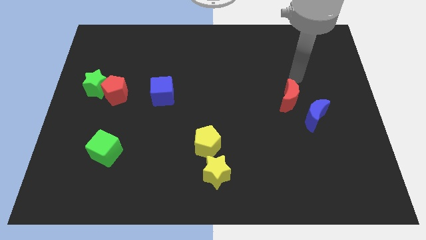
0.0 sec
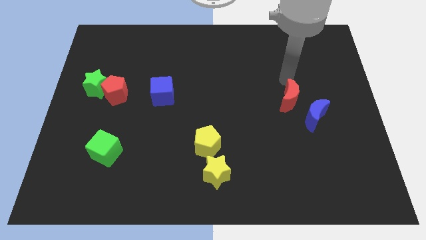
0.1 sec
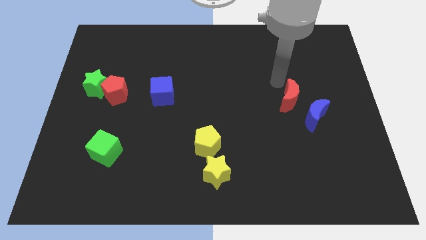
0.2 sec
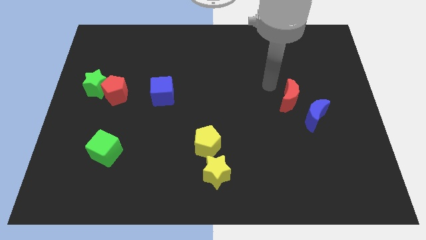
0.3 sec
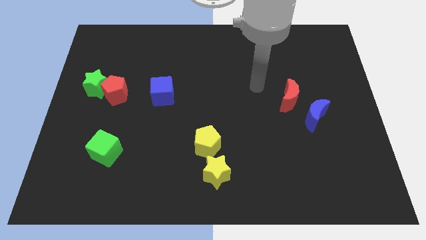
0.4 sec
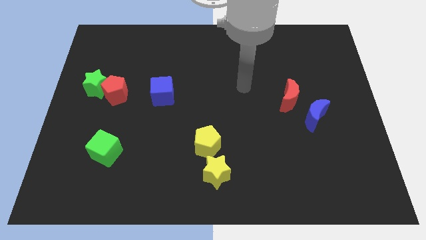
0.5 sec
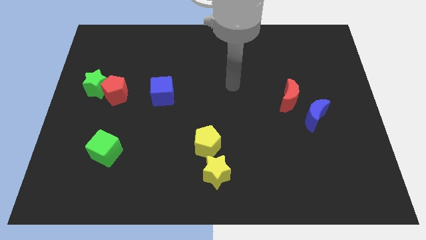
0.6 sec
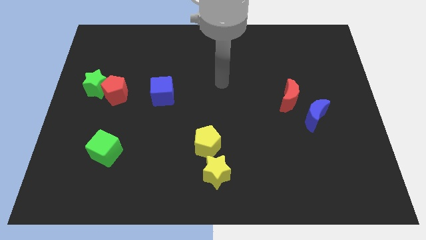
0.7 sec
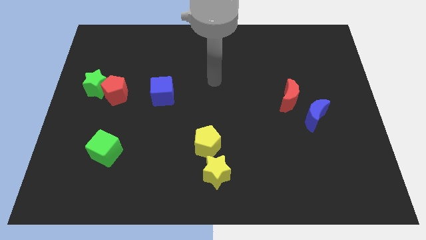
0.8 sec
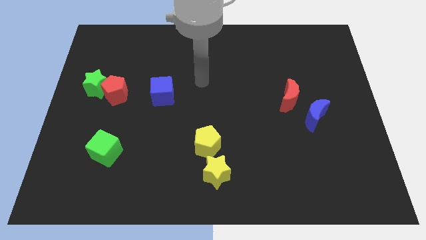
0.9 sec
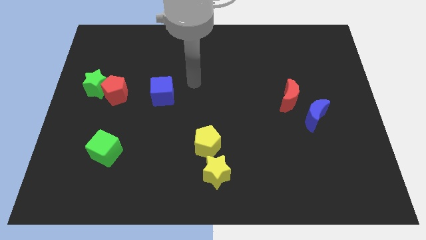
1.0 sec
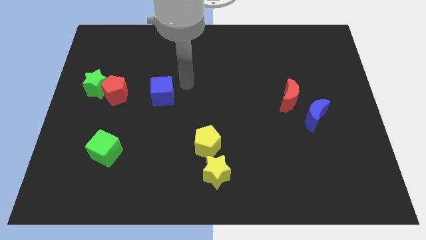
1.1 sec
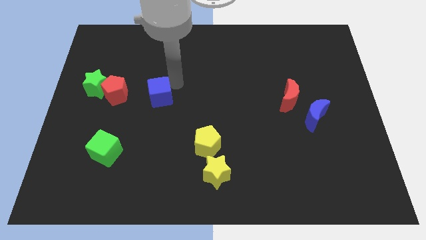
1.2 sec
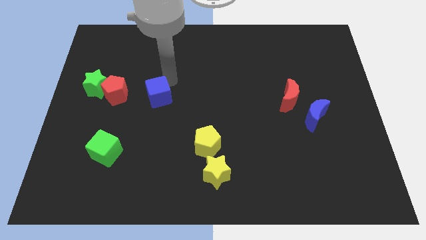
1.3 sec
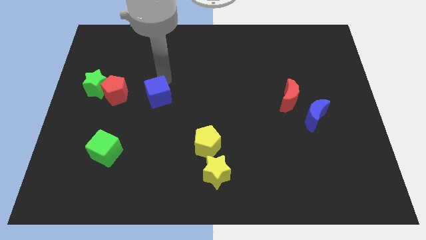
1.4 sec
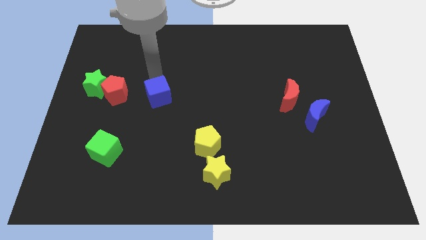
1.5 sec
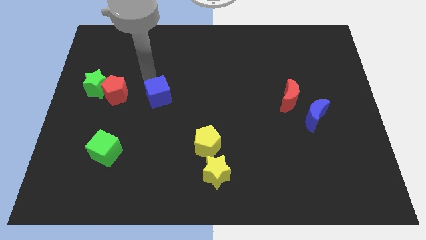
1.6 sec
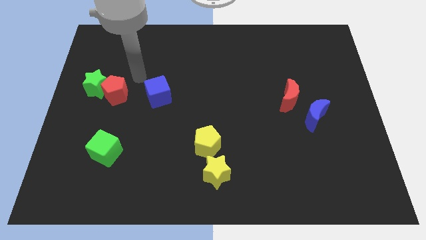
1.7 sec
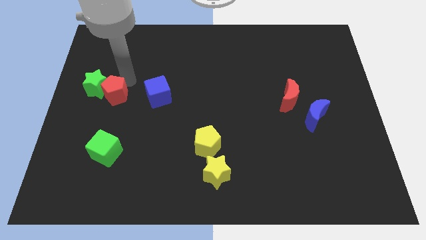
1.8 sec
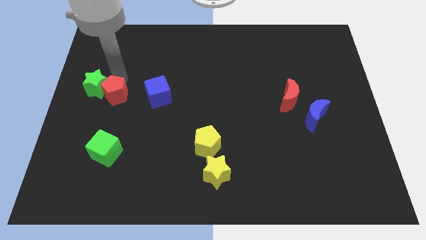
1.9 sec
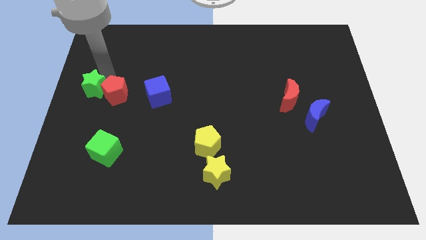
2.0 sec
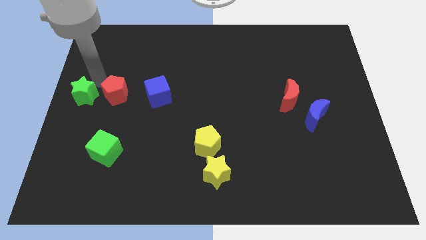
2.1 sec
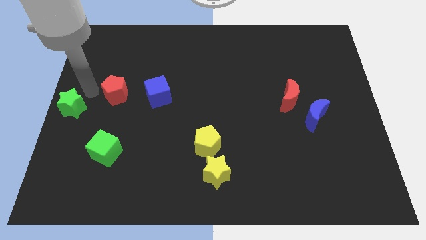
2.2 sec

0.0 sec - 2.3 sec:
separate the red pentagon from the green star

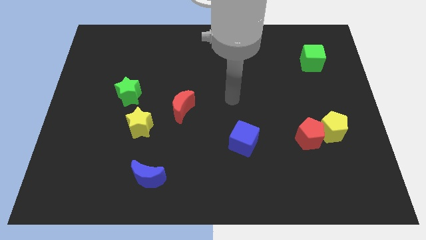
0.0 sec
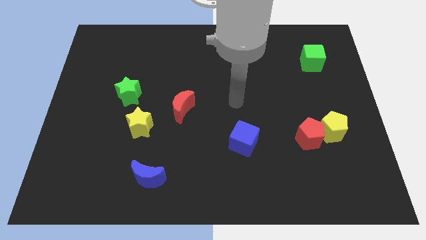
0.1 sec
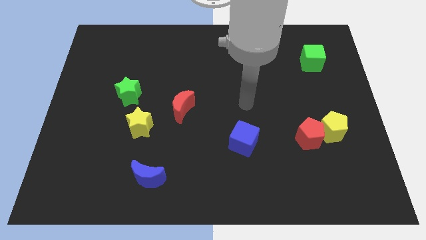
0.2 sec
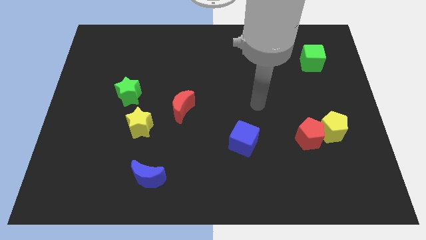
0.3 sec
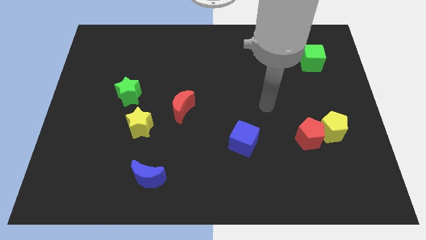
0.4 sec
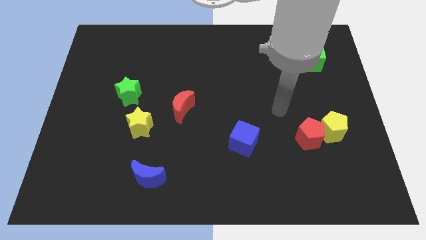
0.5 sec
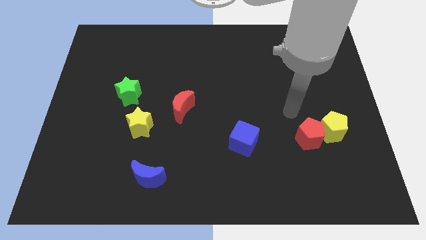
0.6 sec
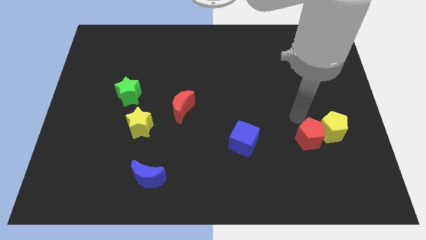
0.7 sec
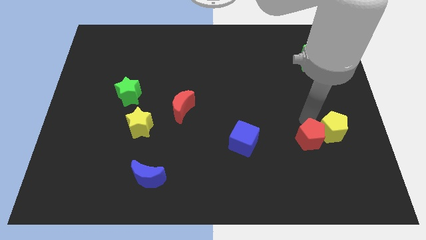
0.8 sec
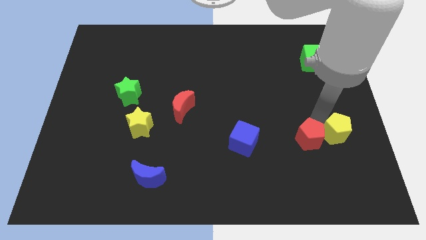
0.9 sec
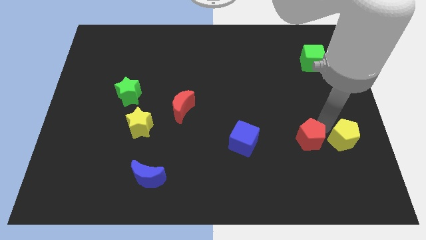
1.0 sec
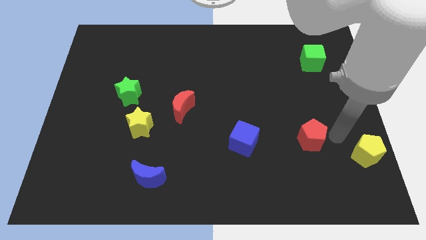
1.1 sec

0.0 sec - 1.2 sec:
pull the red pentagon apart from the yellow pentagon

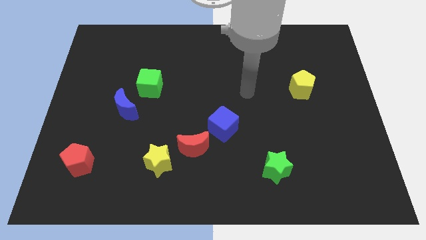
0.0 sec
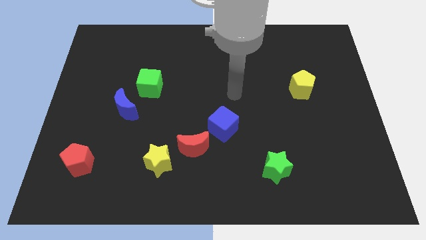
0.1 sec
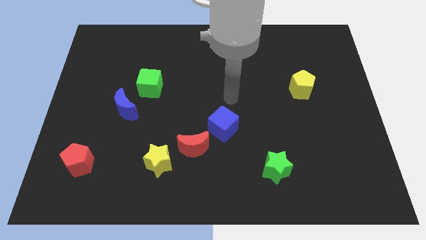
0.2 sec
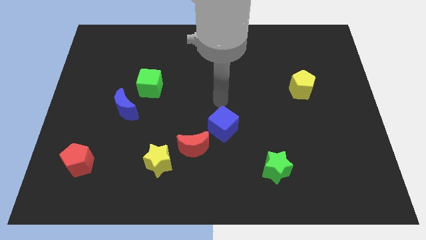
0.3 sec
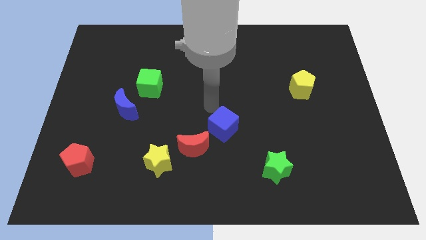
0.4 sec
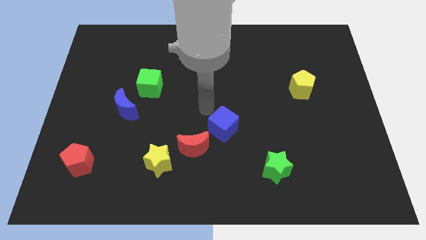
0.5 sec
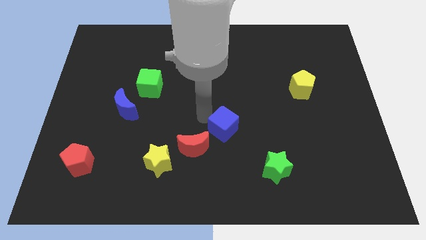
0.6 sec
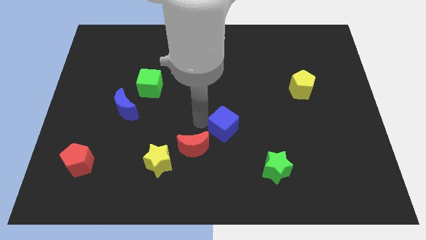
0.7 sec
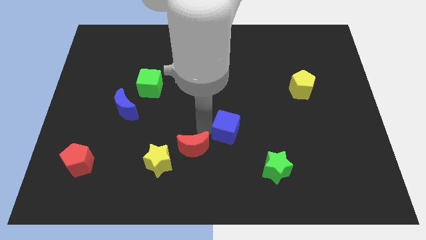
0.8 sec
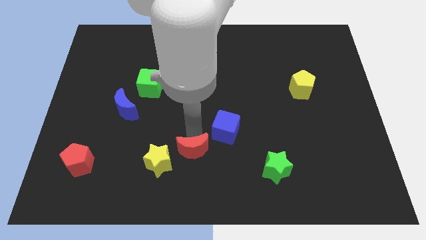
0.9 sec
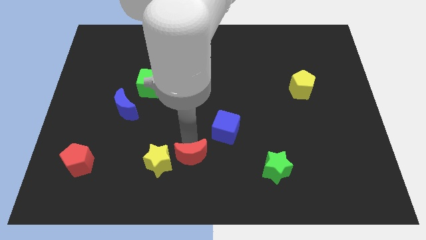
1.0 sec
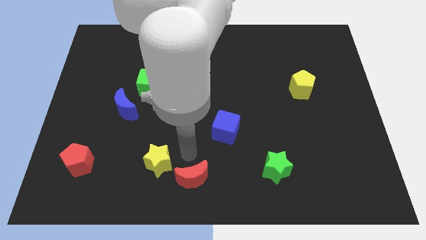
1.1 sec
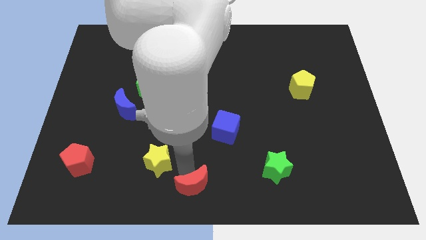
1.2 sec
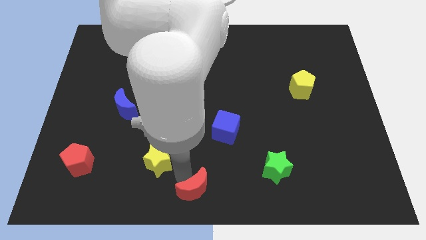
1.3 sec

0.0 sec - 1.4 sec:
pull the yellow star apart from the red moon

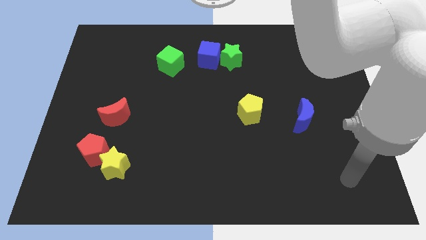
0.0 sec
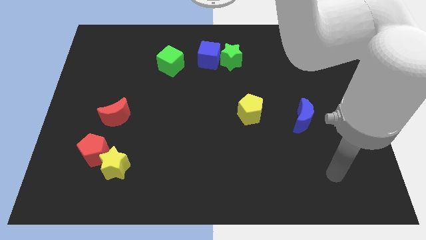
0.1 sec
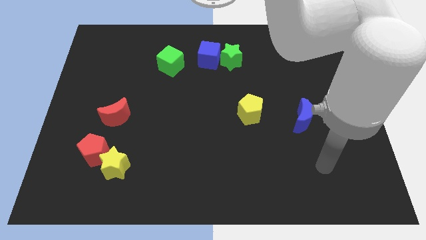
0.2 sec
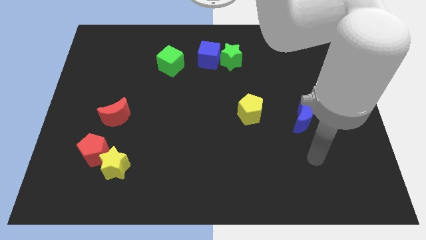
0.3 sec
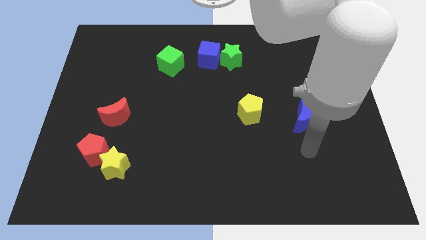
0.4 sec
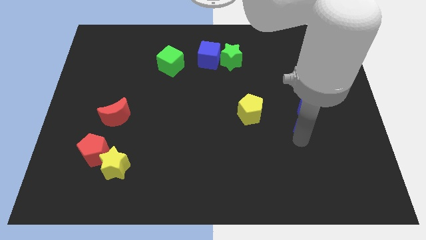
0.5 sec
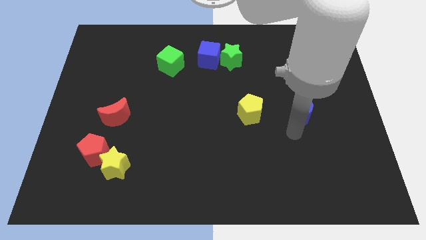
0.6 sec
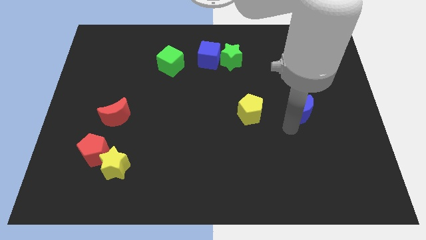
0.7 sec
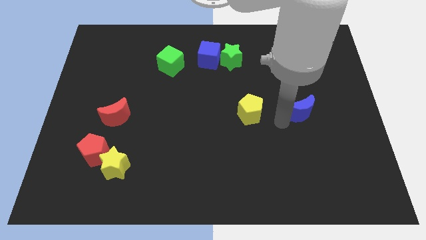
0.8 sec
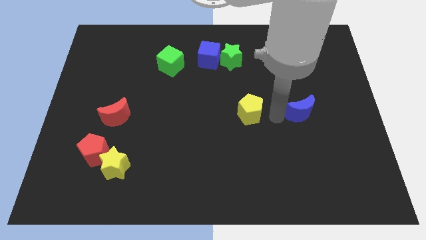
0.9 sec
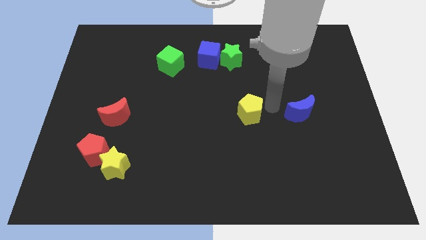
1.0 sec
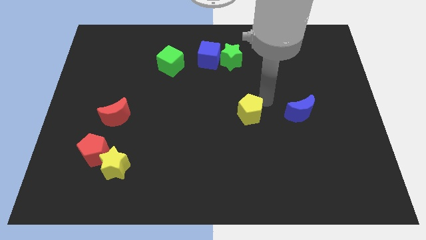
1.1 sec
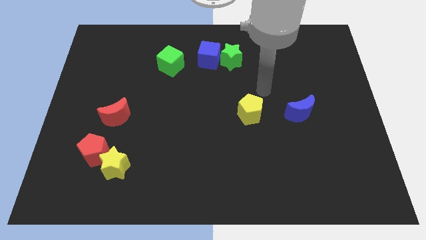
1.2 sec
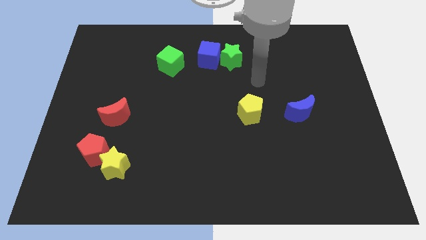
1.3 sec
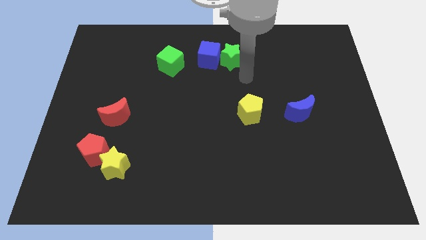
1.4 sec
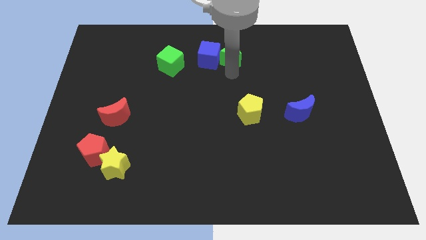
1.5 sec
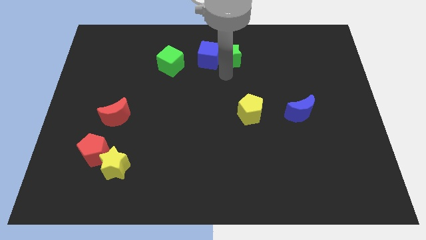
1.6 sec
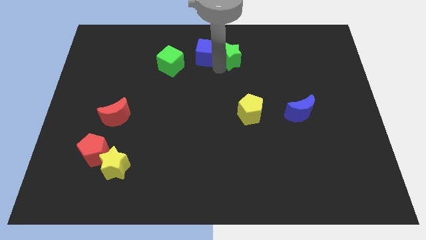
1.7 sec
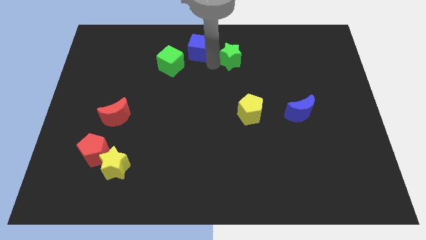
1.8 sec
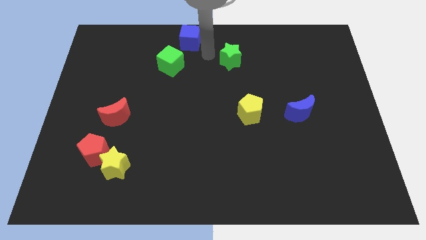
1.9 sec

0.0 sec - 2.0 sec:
pull the green star apart from the blue cube

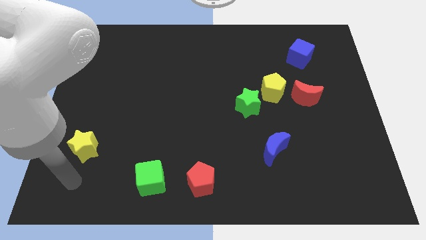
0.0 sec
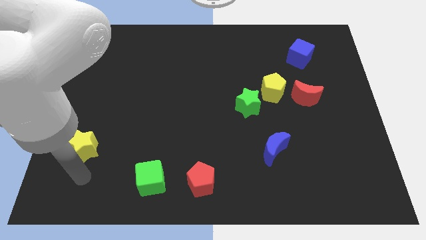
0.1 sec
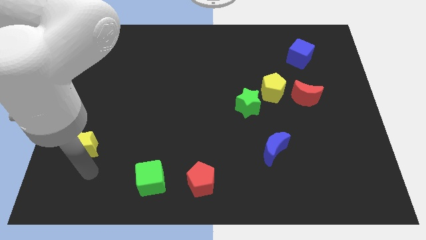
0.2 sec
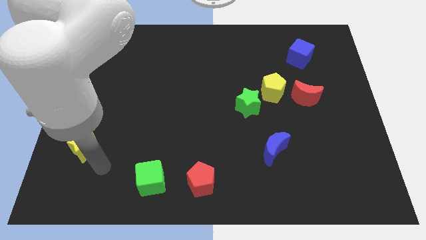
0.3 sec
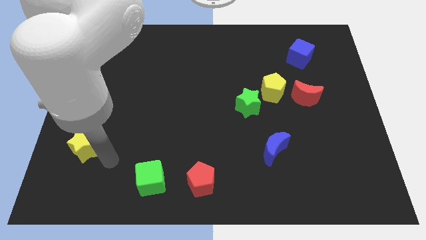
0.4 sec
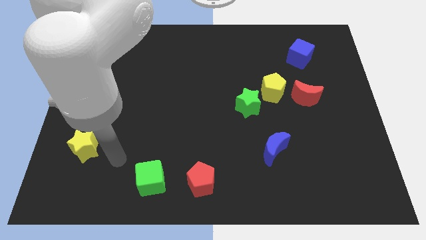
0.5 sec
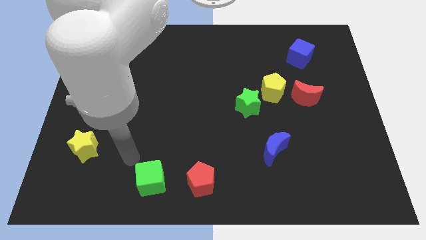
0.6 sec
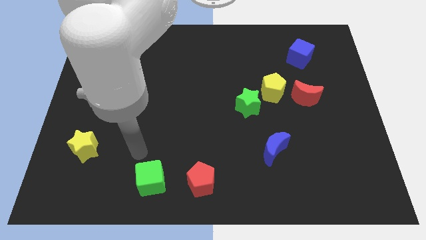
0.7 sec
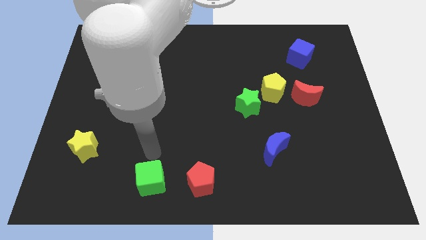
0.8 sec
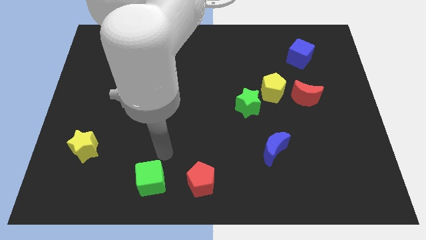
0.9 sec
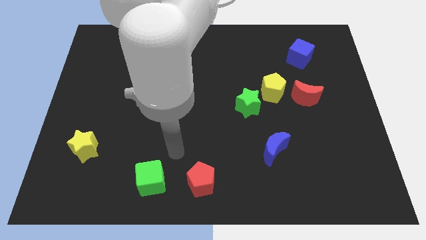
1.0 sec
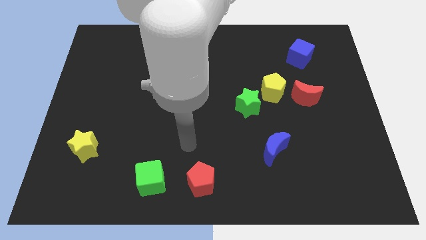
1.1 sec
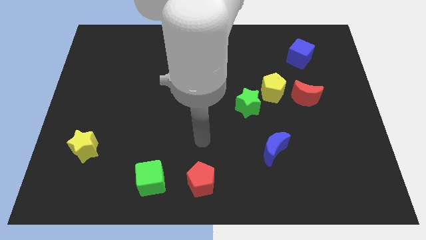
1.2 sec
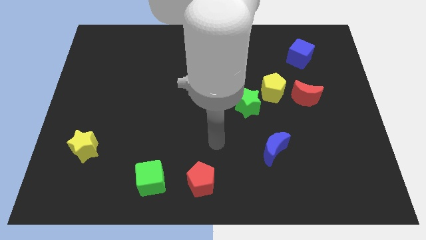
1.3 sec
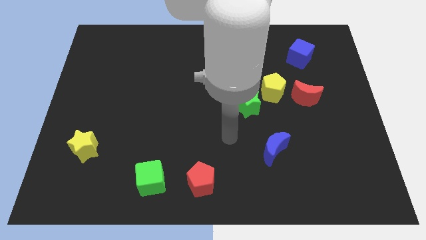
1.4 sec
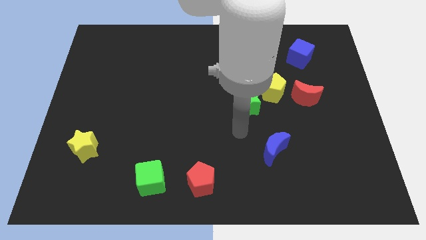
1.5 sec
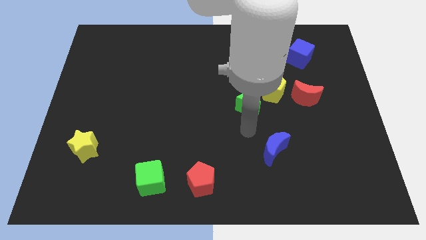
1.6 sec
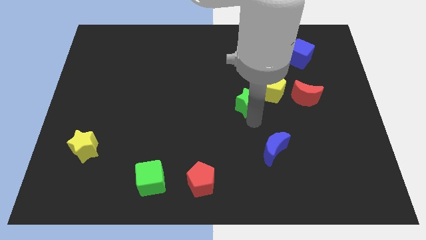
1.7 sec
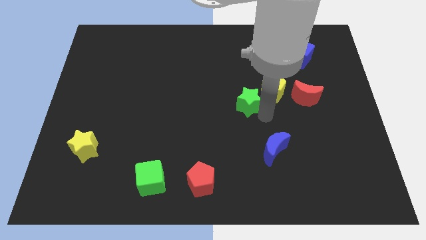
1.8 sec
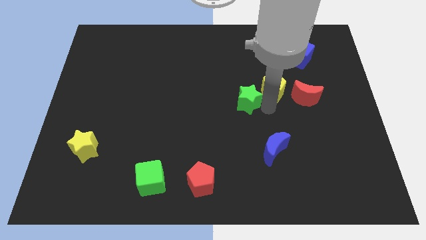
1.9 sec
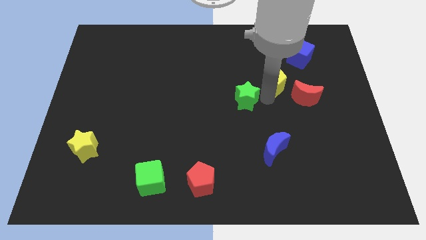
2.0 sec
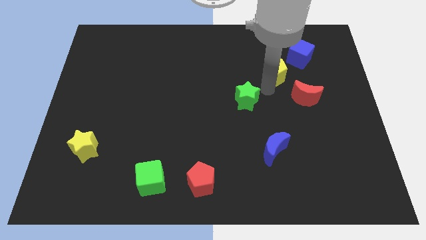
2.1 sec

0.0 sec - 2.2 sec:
move the green star away from the yellow pentagon

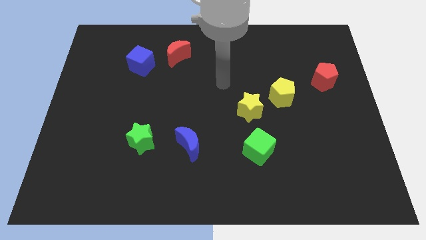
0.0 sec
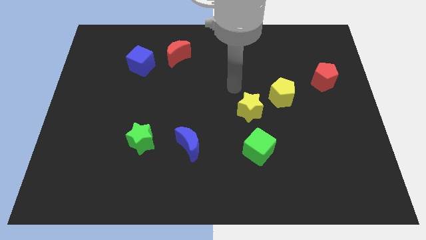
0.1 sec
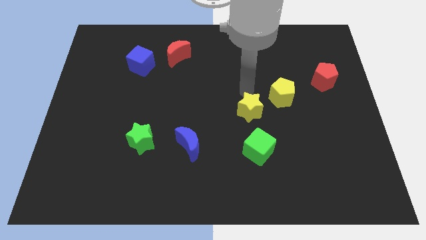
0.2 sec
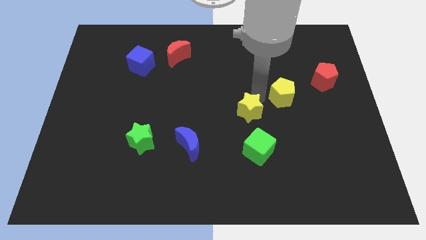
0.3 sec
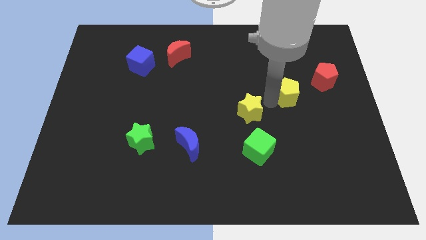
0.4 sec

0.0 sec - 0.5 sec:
separate the yellow star from the yellow pentagon
